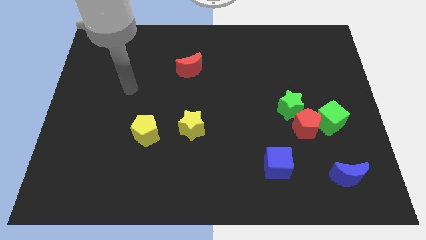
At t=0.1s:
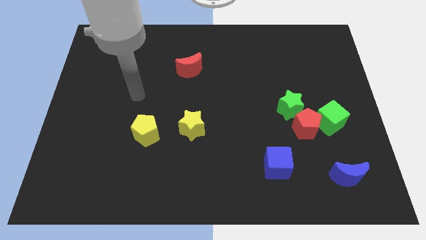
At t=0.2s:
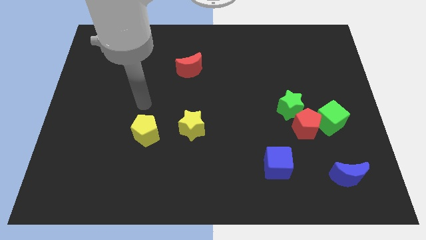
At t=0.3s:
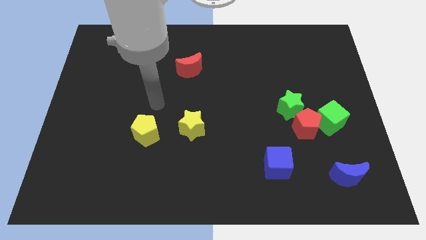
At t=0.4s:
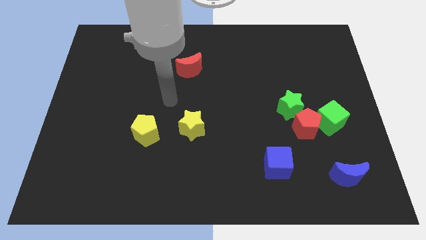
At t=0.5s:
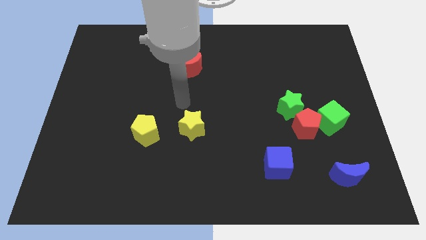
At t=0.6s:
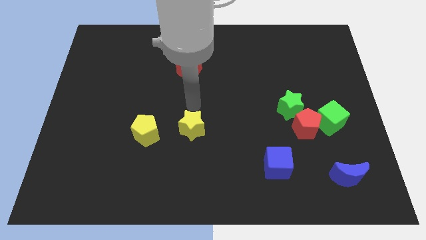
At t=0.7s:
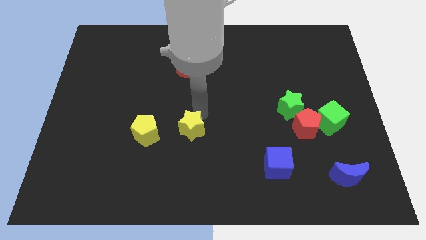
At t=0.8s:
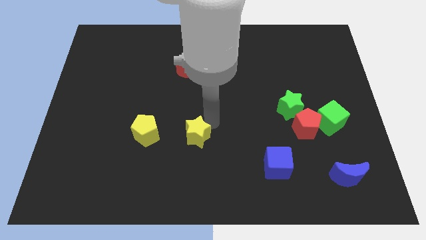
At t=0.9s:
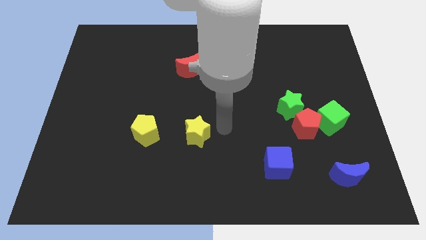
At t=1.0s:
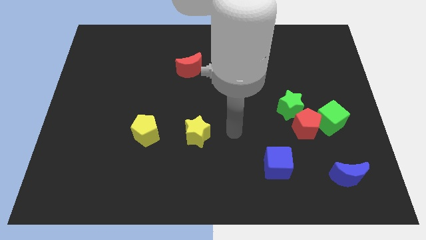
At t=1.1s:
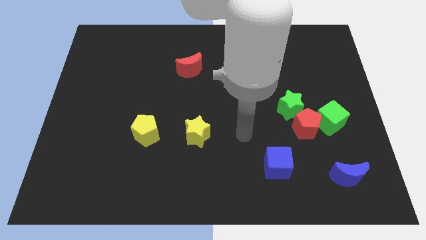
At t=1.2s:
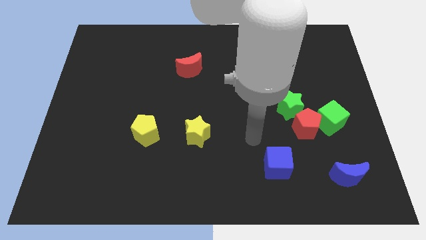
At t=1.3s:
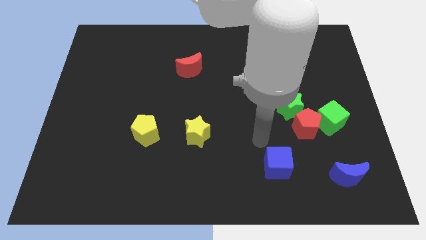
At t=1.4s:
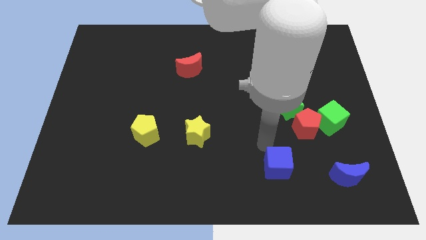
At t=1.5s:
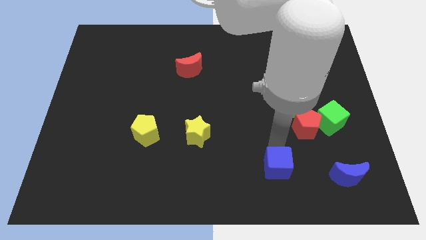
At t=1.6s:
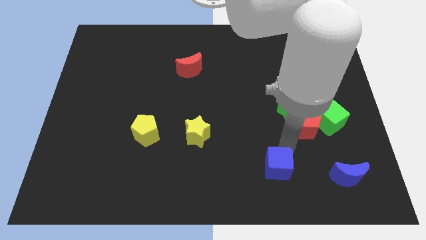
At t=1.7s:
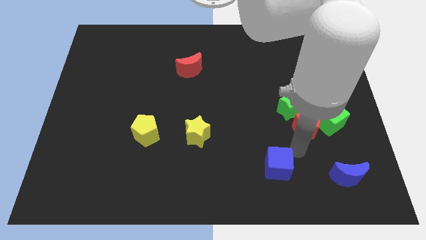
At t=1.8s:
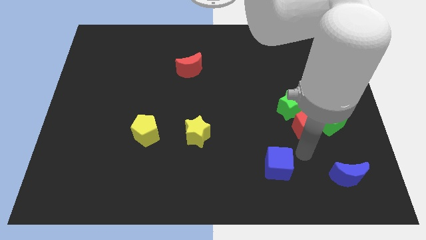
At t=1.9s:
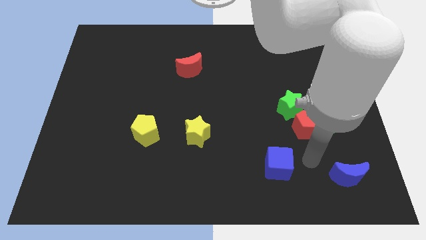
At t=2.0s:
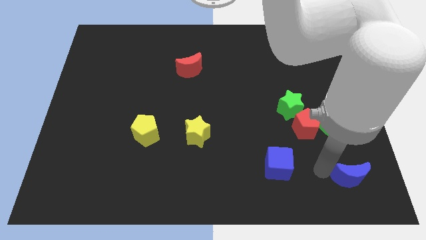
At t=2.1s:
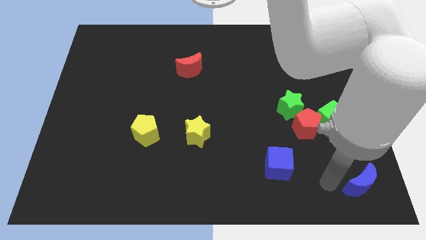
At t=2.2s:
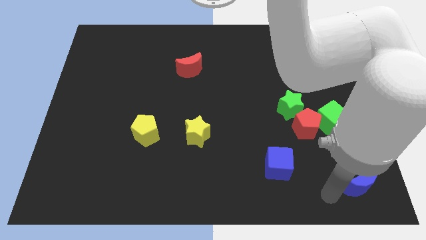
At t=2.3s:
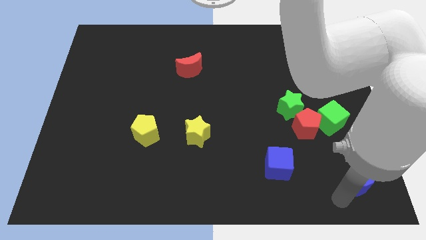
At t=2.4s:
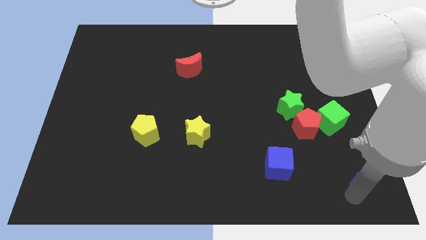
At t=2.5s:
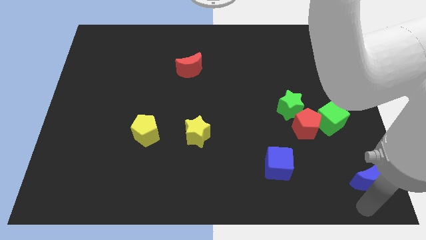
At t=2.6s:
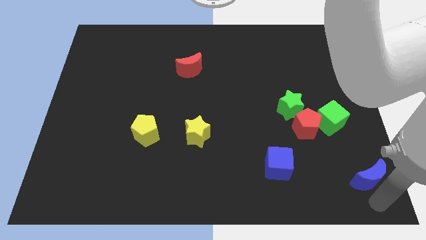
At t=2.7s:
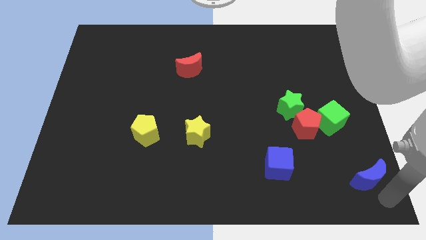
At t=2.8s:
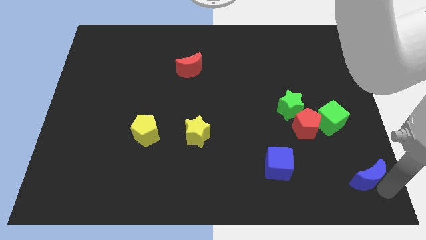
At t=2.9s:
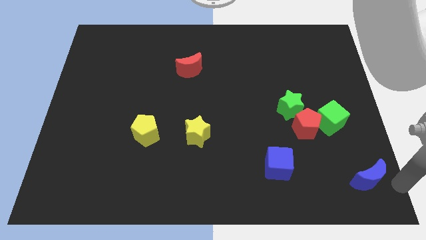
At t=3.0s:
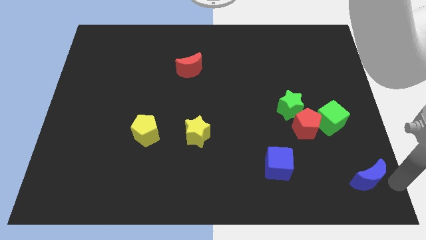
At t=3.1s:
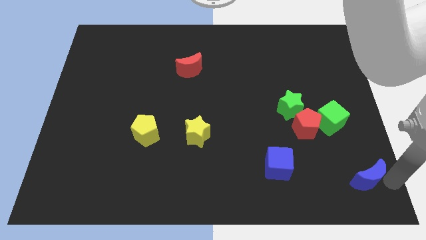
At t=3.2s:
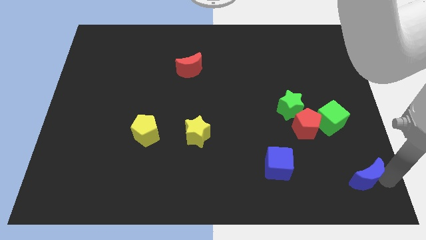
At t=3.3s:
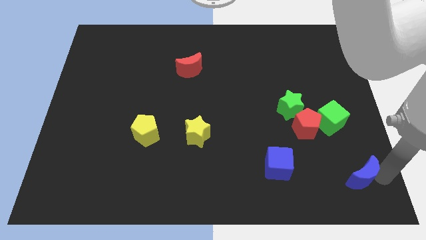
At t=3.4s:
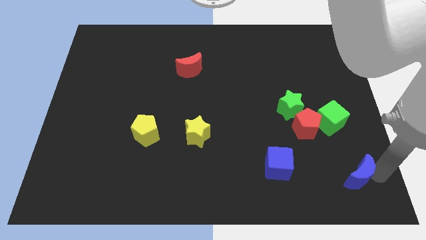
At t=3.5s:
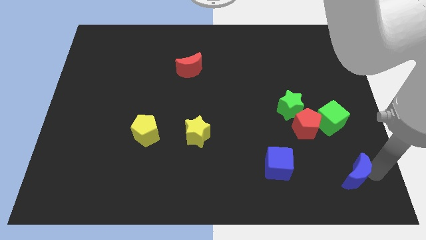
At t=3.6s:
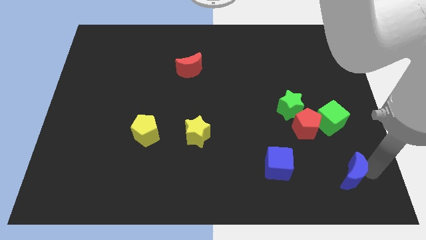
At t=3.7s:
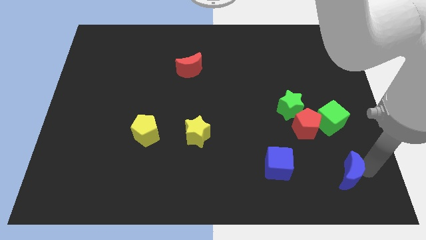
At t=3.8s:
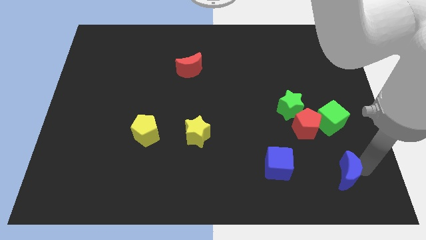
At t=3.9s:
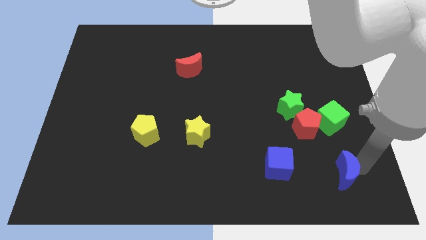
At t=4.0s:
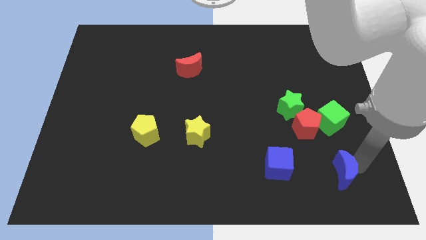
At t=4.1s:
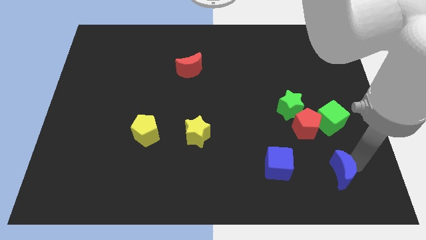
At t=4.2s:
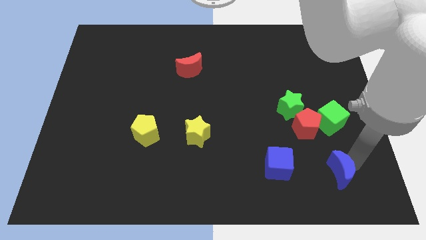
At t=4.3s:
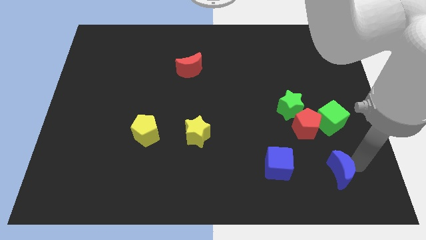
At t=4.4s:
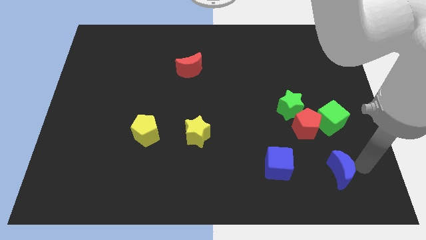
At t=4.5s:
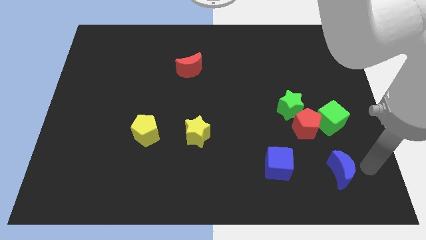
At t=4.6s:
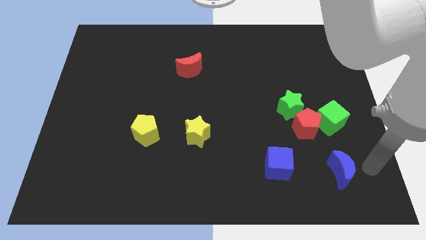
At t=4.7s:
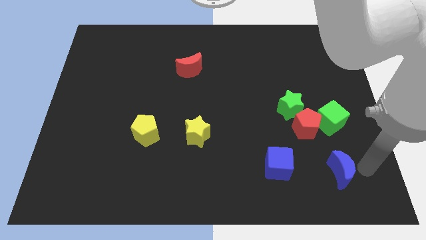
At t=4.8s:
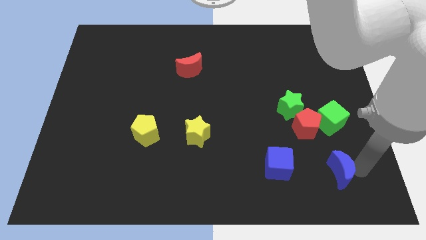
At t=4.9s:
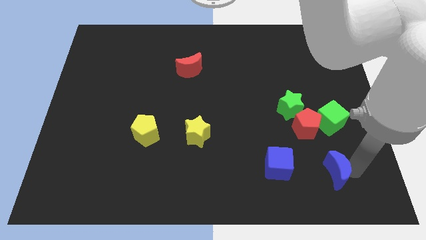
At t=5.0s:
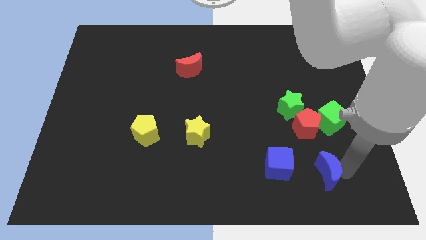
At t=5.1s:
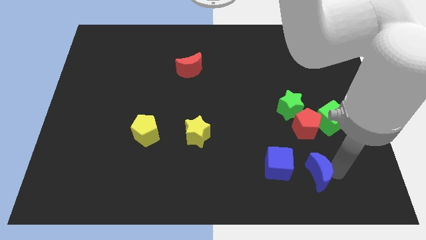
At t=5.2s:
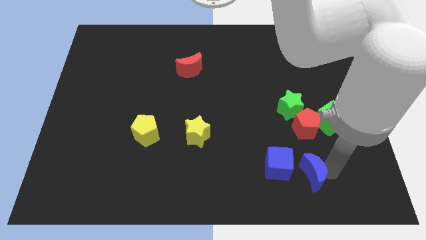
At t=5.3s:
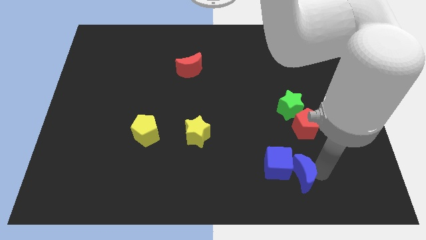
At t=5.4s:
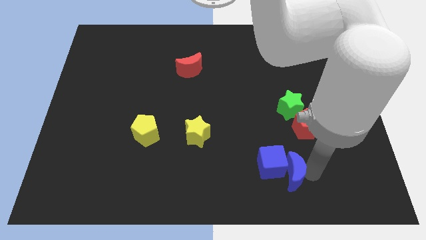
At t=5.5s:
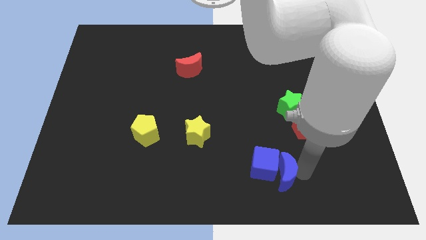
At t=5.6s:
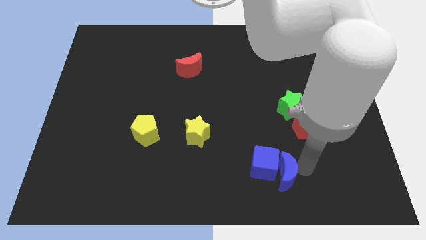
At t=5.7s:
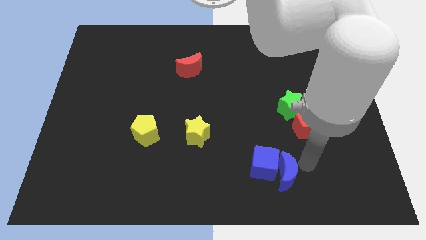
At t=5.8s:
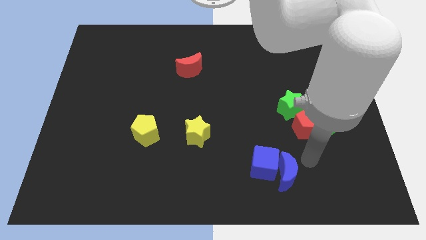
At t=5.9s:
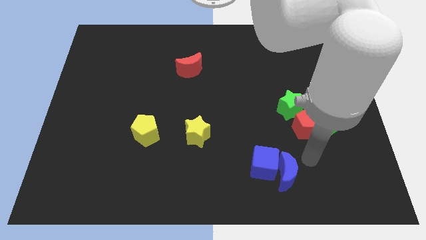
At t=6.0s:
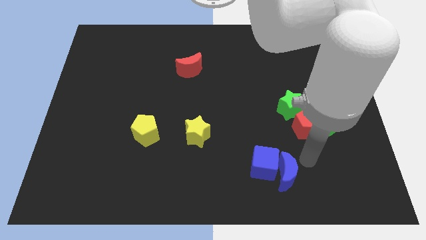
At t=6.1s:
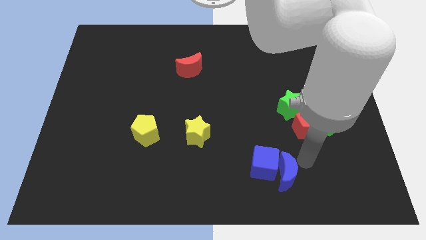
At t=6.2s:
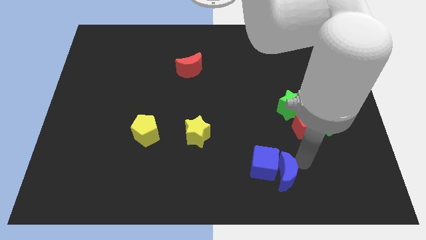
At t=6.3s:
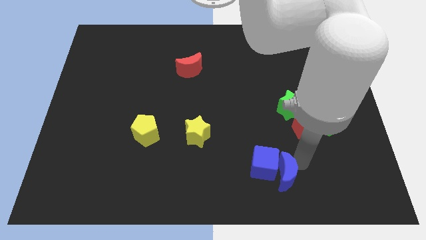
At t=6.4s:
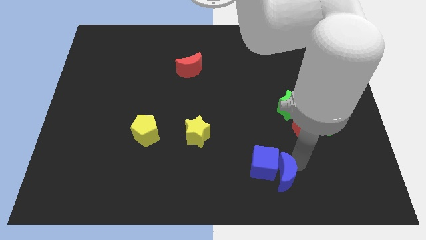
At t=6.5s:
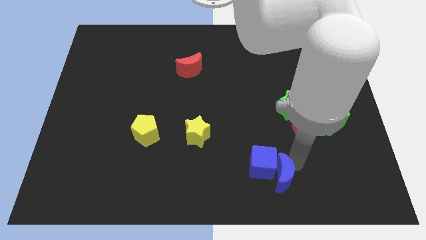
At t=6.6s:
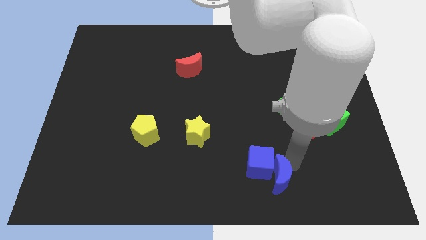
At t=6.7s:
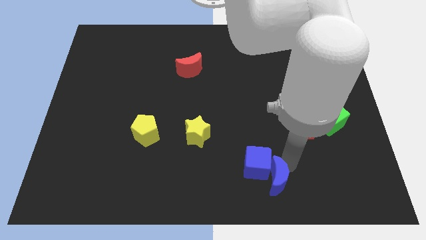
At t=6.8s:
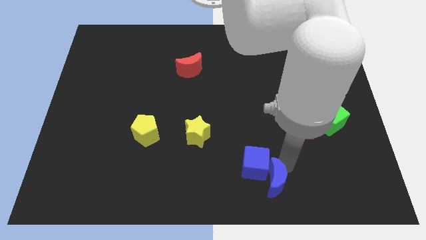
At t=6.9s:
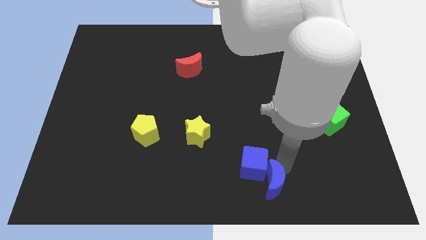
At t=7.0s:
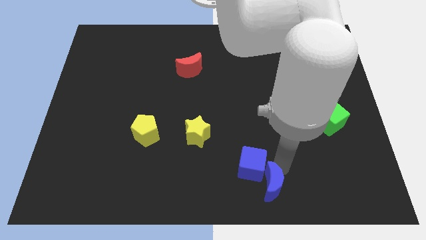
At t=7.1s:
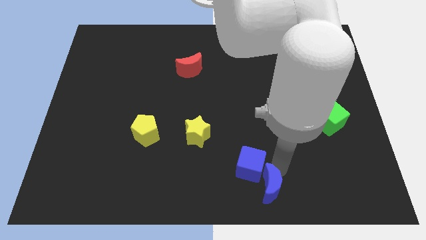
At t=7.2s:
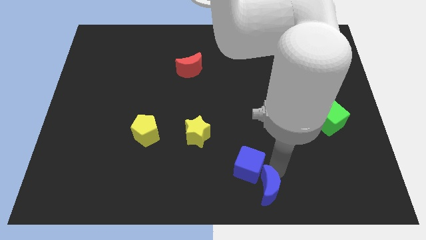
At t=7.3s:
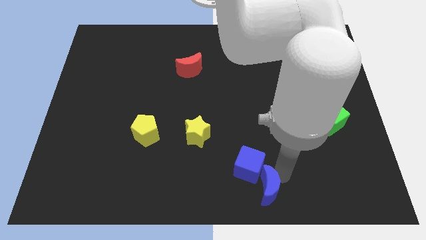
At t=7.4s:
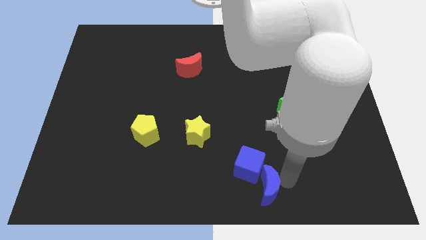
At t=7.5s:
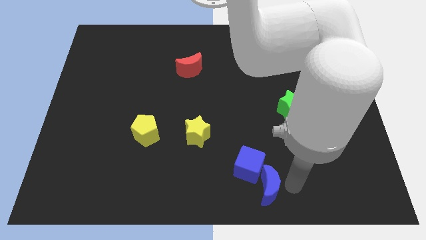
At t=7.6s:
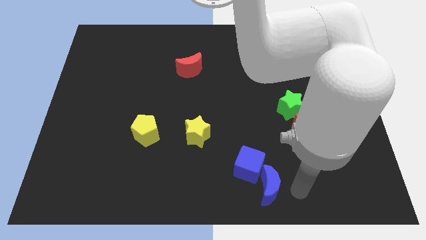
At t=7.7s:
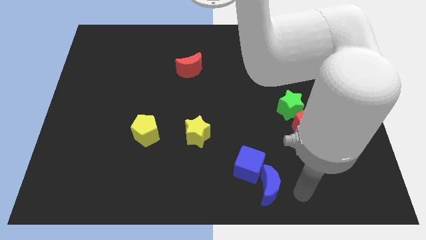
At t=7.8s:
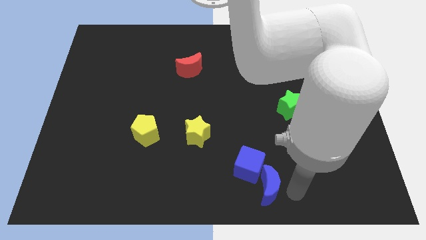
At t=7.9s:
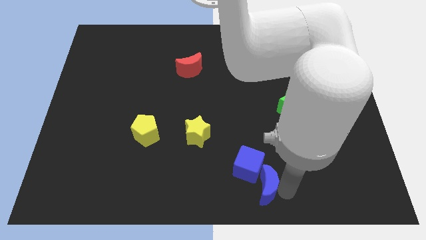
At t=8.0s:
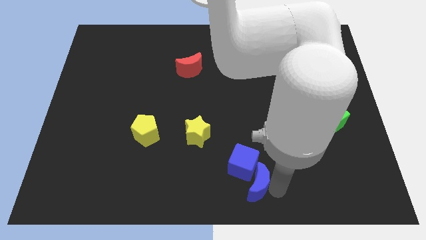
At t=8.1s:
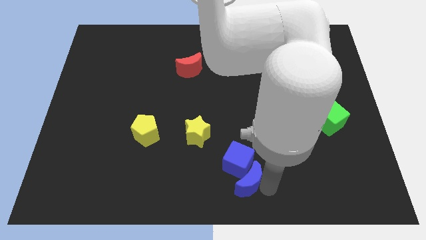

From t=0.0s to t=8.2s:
move the blue moon to the left
